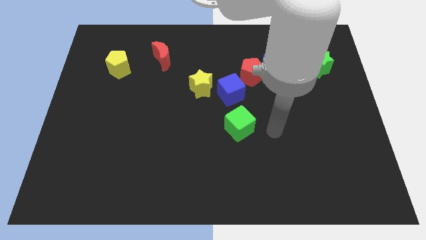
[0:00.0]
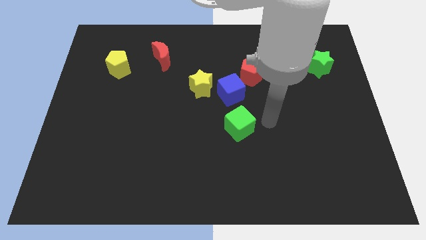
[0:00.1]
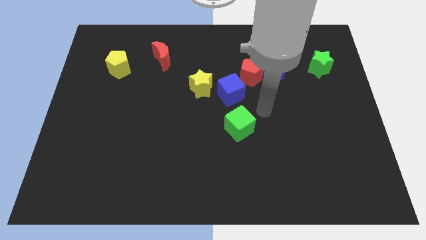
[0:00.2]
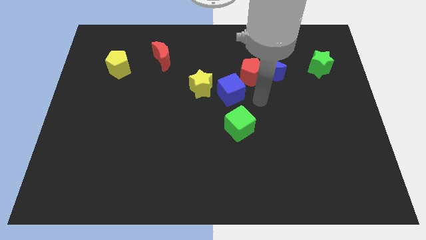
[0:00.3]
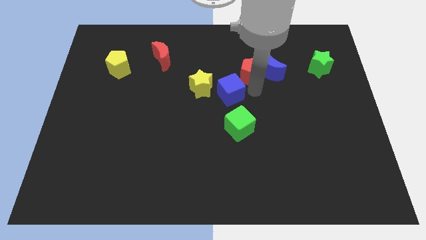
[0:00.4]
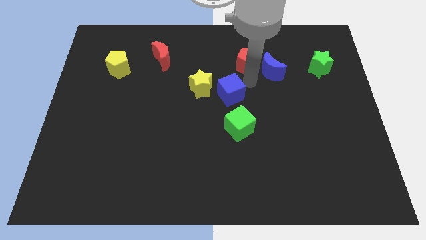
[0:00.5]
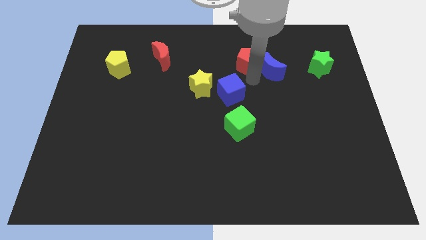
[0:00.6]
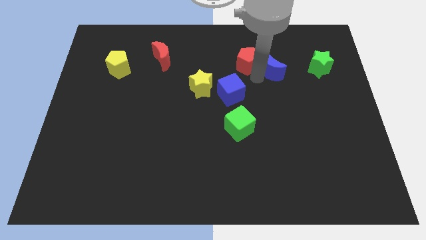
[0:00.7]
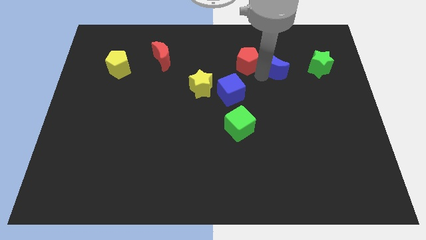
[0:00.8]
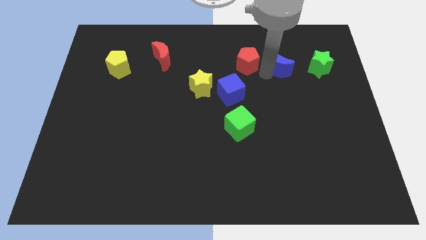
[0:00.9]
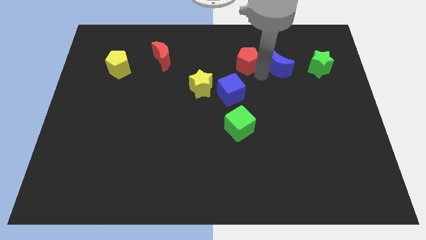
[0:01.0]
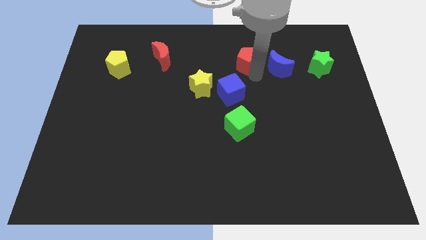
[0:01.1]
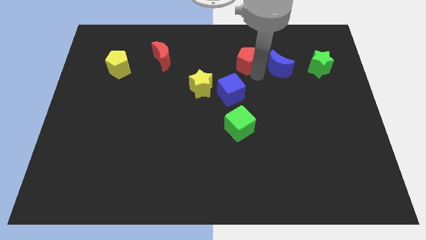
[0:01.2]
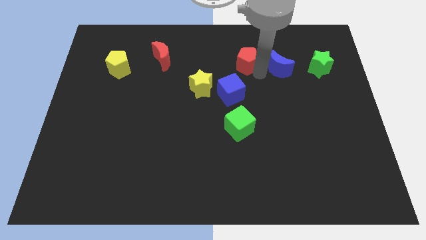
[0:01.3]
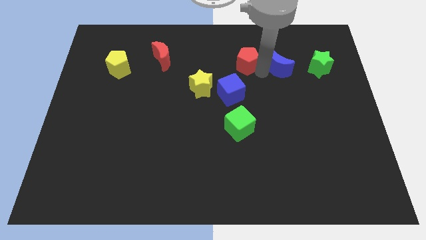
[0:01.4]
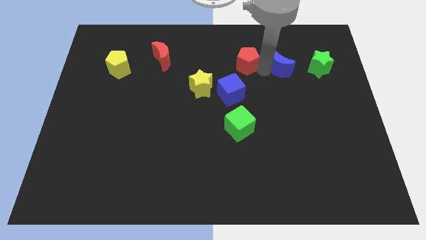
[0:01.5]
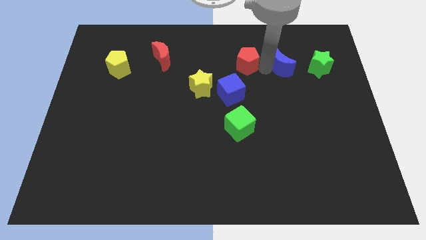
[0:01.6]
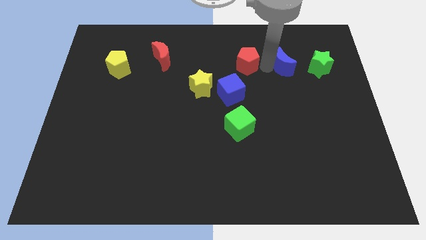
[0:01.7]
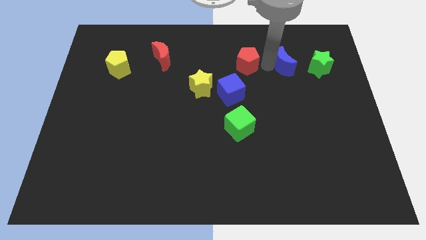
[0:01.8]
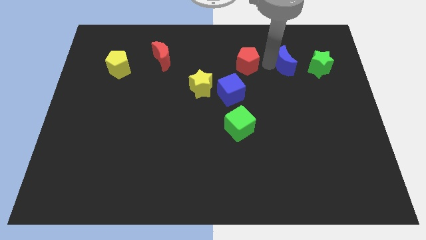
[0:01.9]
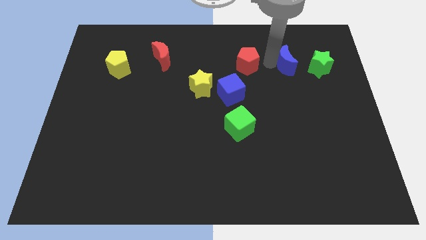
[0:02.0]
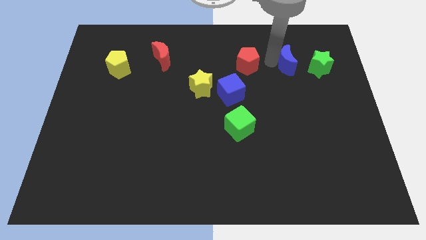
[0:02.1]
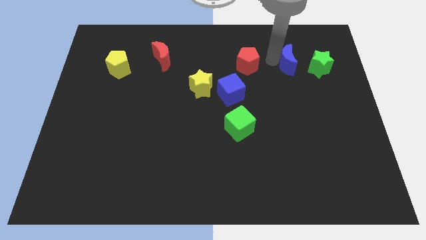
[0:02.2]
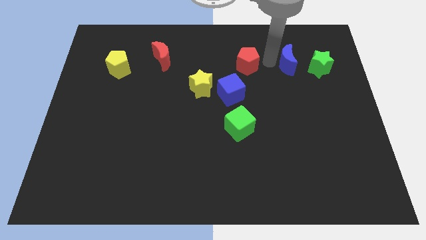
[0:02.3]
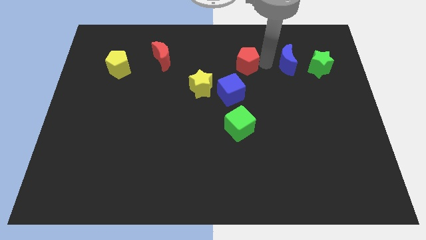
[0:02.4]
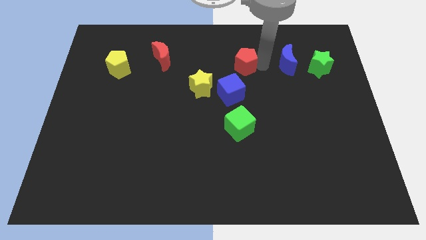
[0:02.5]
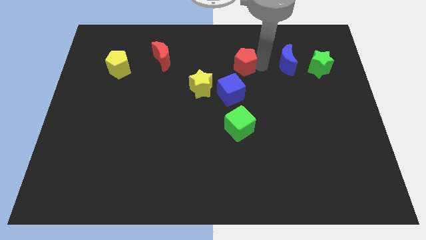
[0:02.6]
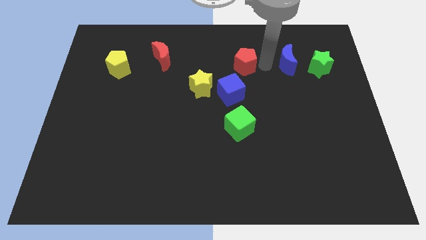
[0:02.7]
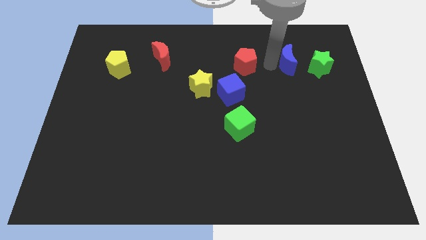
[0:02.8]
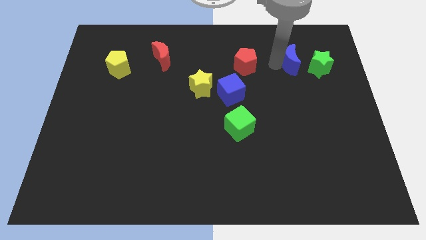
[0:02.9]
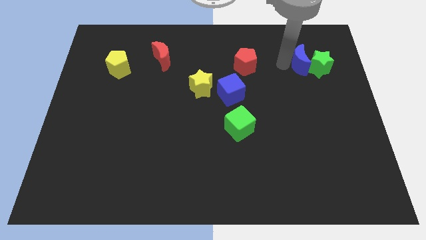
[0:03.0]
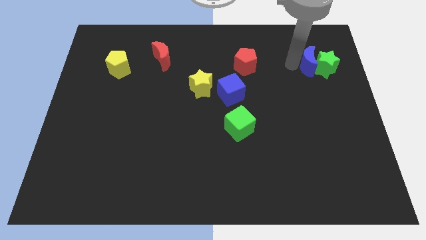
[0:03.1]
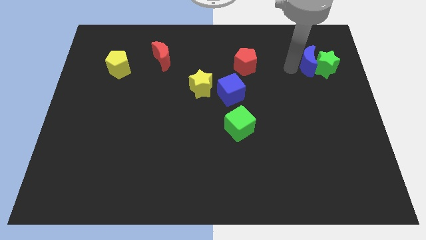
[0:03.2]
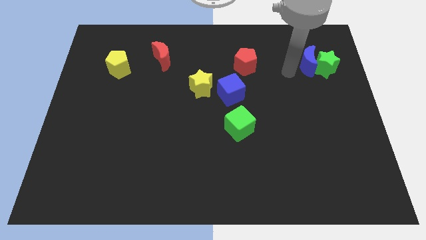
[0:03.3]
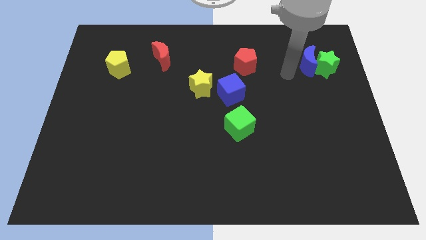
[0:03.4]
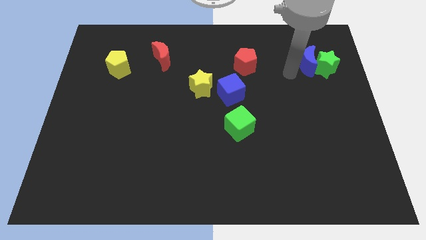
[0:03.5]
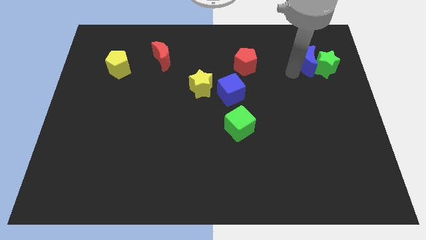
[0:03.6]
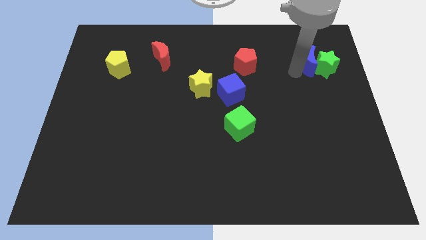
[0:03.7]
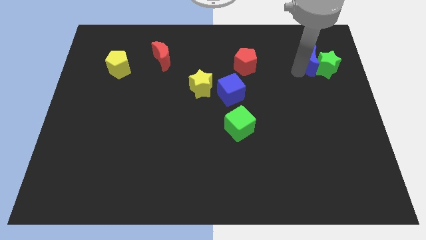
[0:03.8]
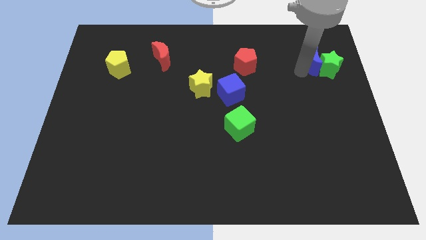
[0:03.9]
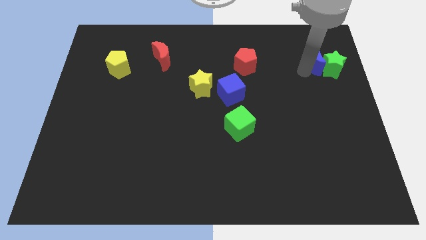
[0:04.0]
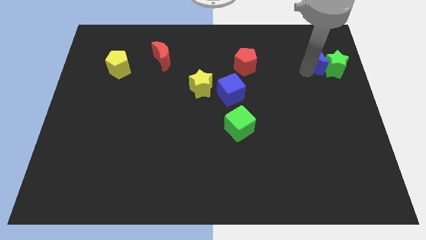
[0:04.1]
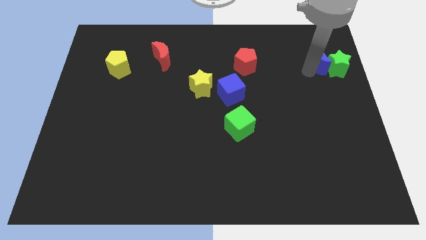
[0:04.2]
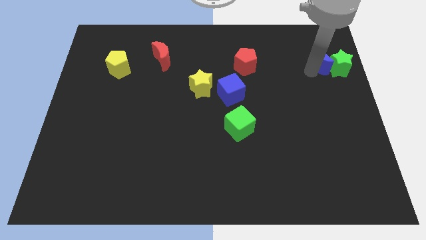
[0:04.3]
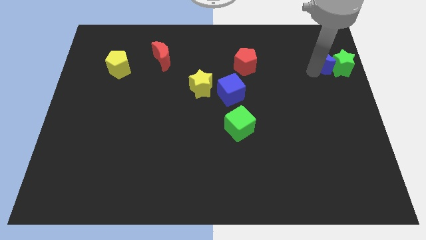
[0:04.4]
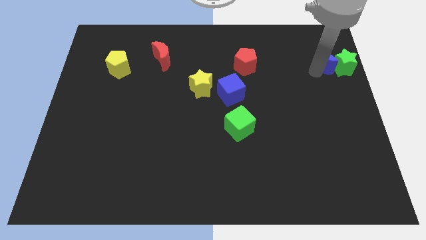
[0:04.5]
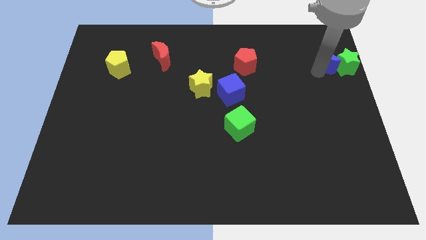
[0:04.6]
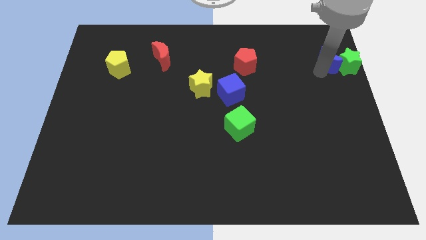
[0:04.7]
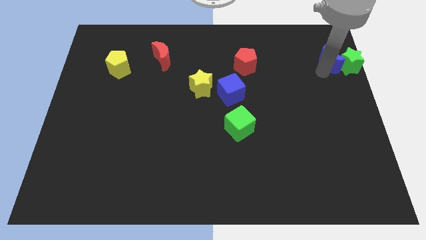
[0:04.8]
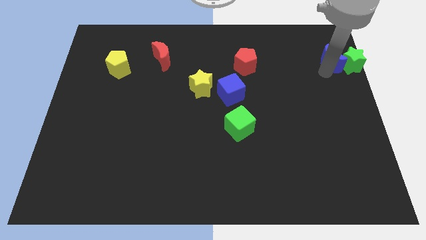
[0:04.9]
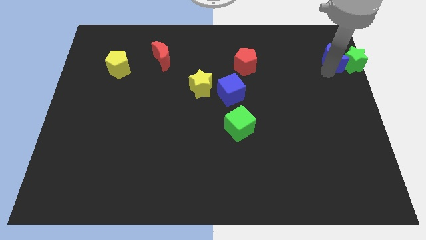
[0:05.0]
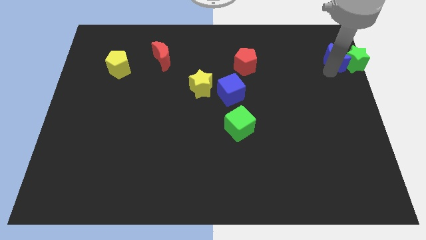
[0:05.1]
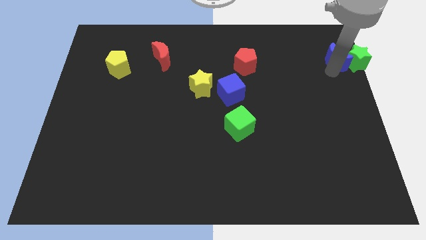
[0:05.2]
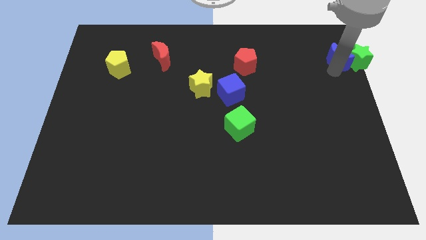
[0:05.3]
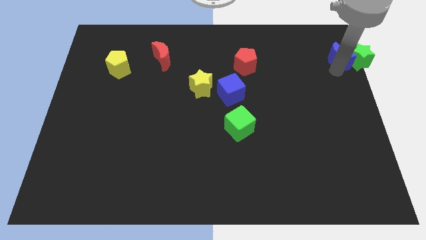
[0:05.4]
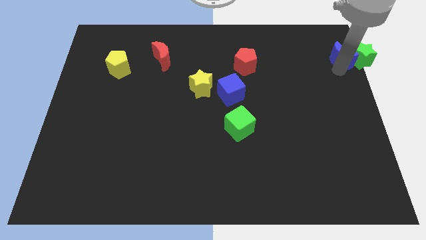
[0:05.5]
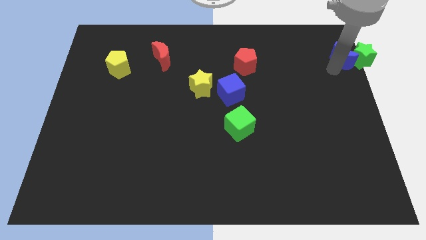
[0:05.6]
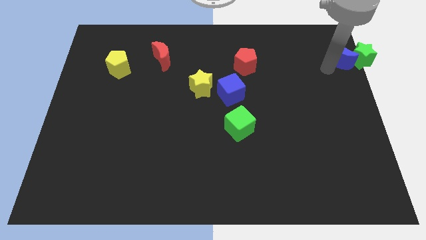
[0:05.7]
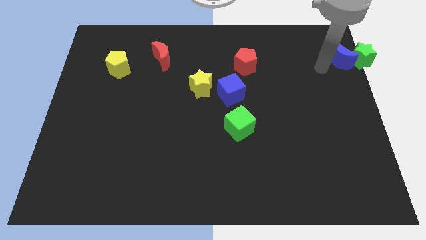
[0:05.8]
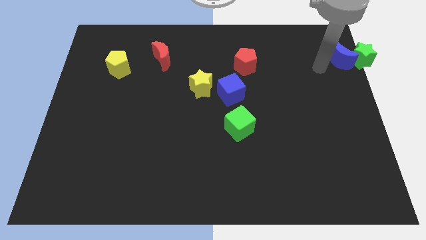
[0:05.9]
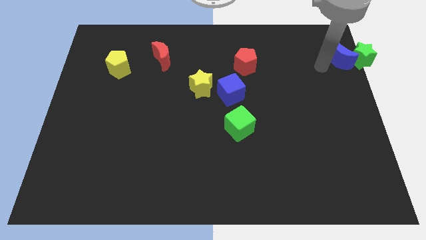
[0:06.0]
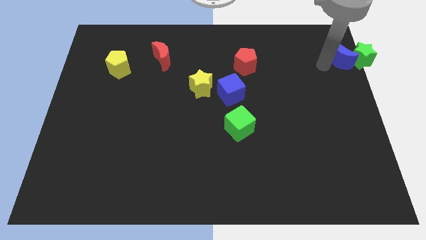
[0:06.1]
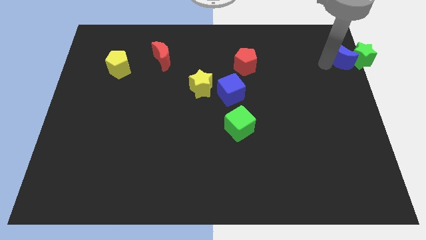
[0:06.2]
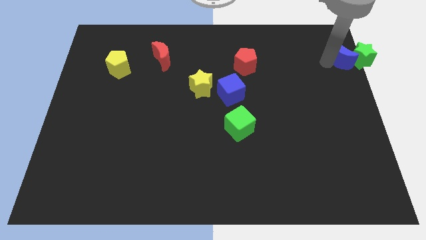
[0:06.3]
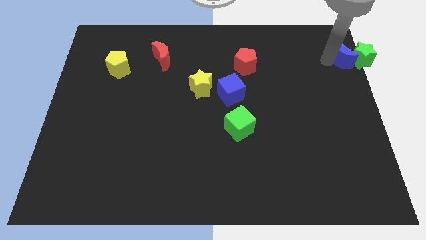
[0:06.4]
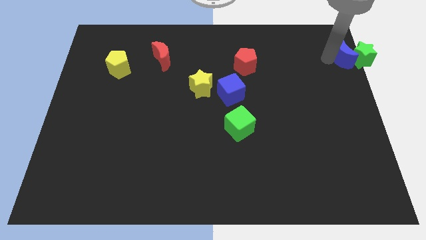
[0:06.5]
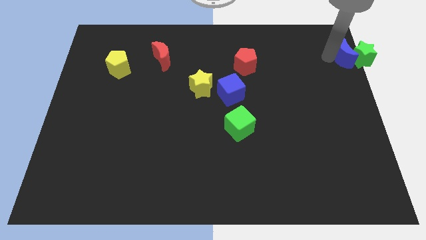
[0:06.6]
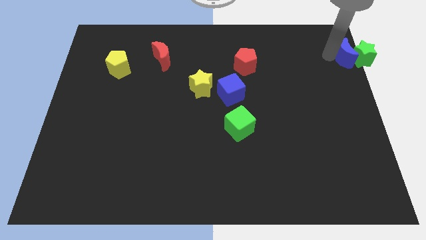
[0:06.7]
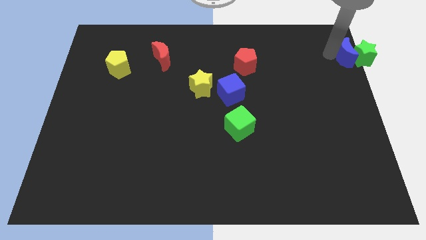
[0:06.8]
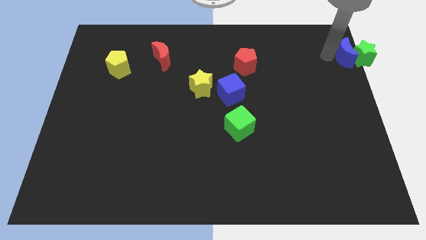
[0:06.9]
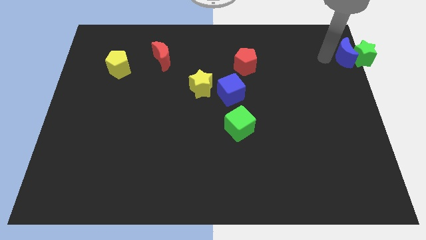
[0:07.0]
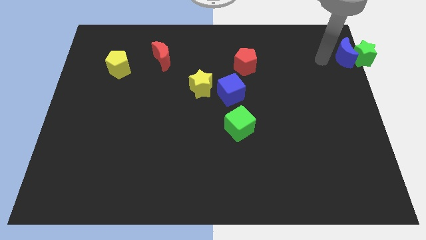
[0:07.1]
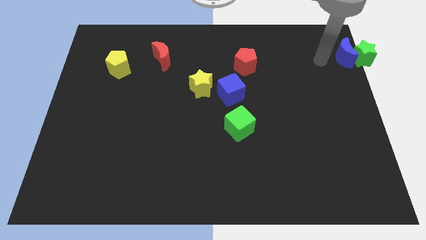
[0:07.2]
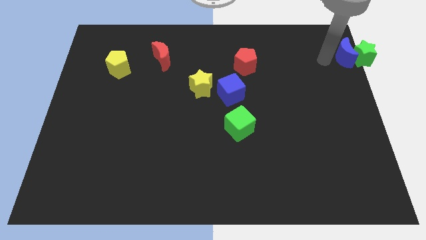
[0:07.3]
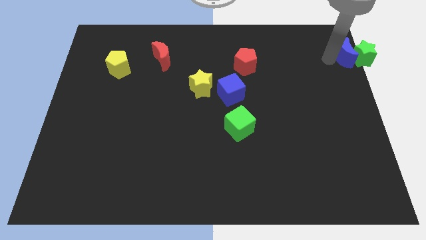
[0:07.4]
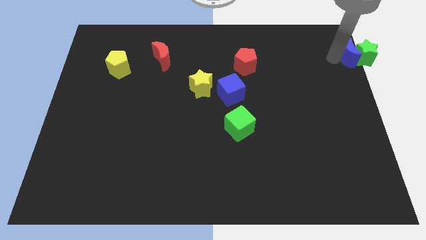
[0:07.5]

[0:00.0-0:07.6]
move the blue moon to the top right

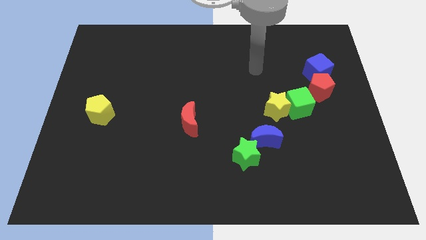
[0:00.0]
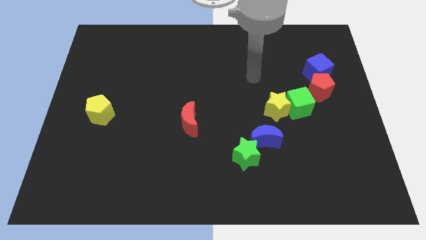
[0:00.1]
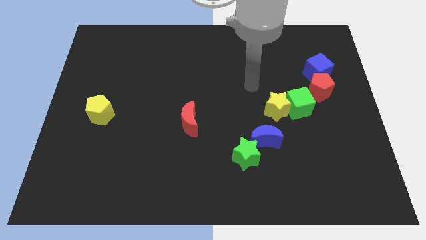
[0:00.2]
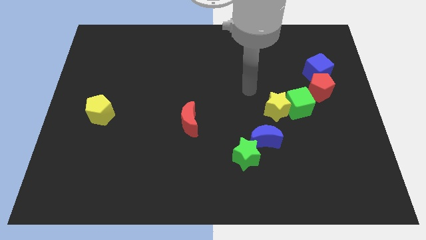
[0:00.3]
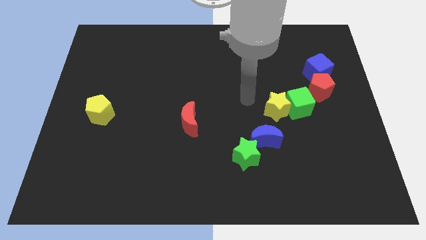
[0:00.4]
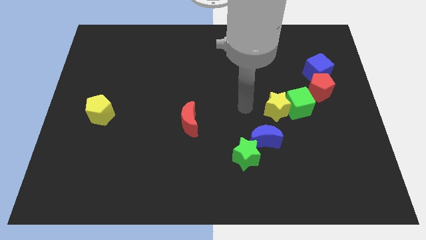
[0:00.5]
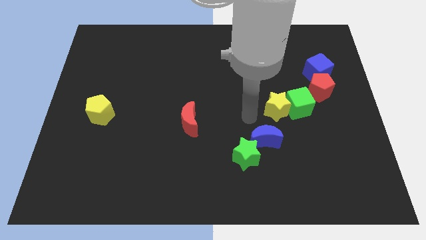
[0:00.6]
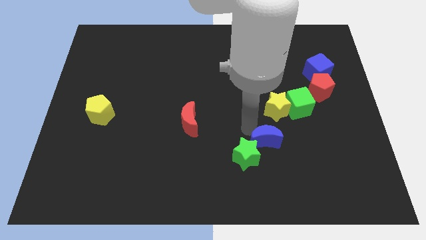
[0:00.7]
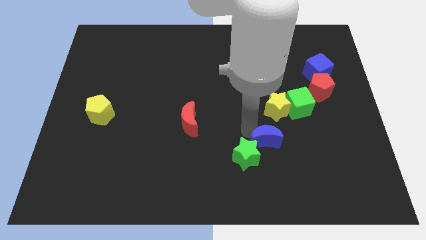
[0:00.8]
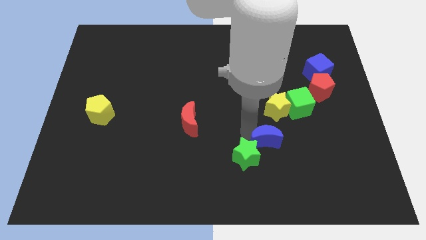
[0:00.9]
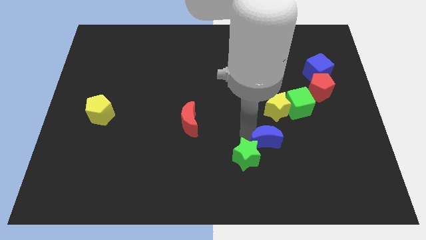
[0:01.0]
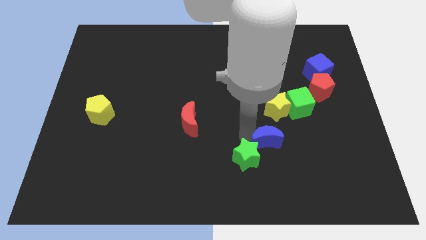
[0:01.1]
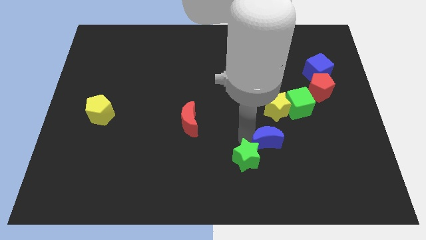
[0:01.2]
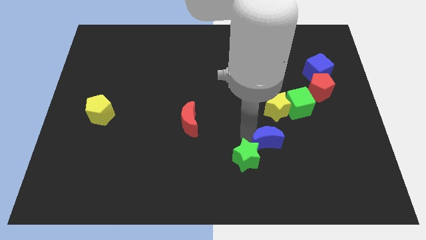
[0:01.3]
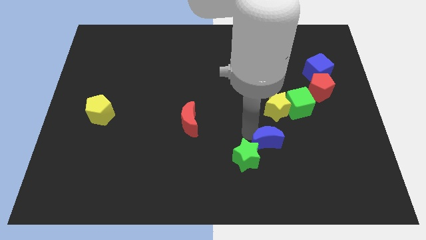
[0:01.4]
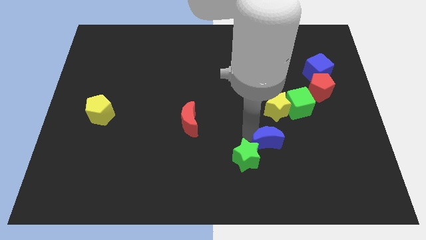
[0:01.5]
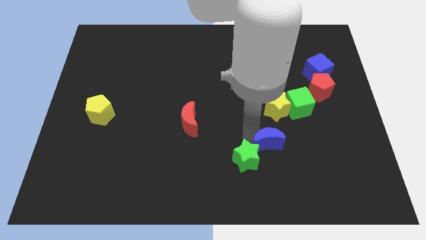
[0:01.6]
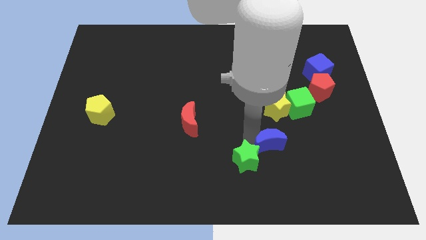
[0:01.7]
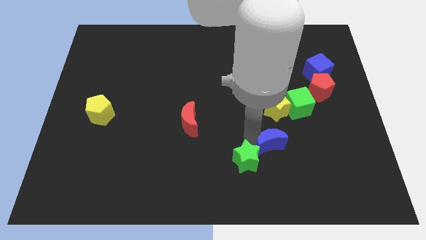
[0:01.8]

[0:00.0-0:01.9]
slide the green star to the bottom side
